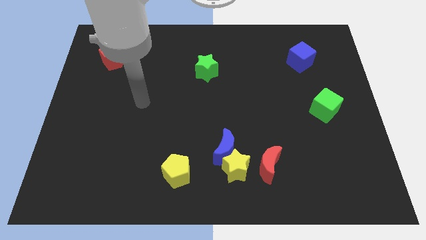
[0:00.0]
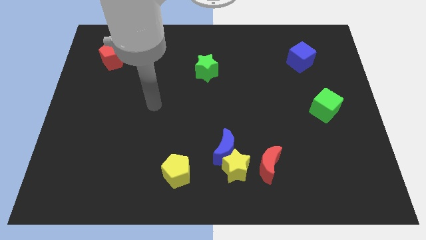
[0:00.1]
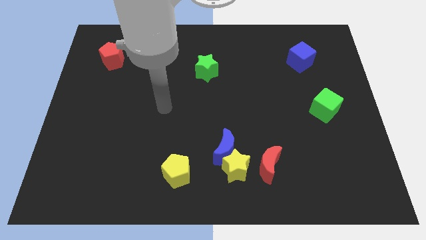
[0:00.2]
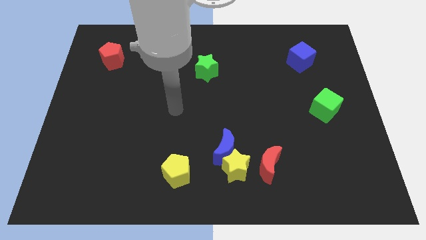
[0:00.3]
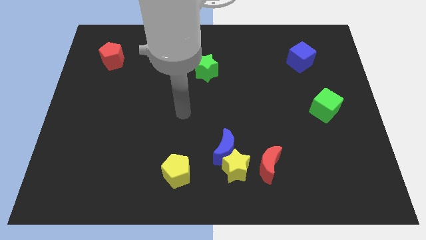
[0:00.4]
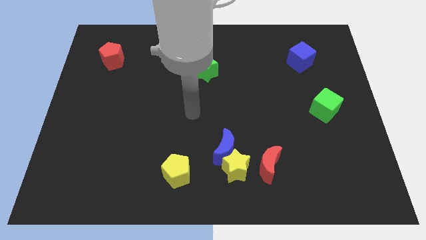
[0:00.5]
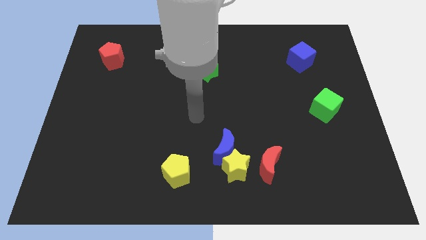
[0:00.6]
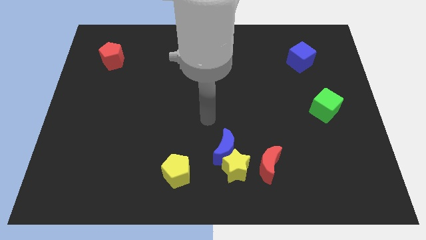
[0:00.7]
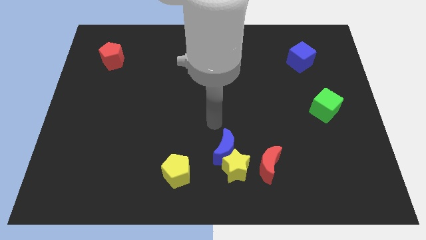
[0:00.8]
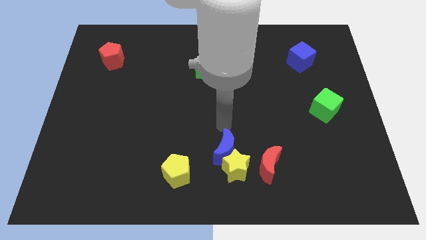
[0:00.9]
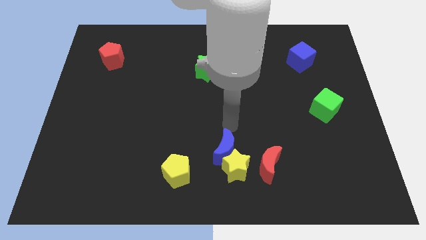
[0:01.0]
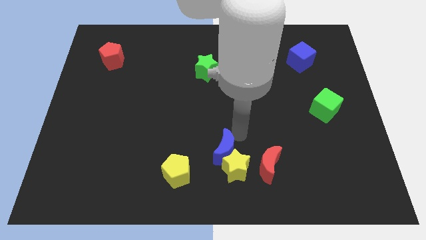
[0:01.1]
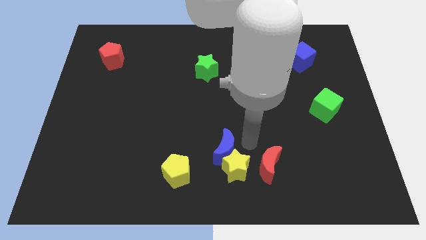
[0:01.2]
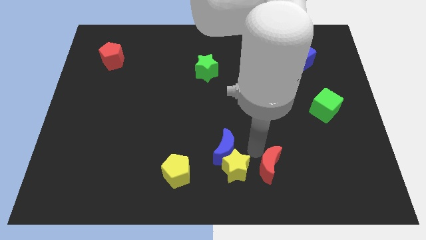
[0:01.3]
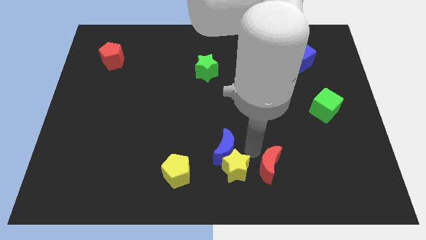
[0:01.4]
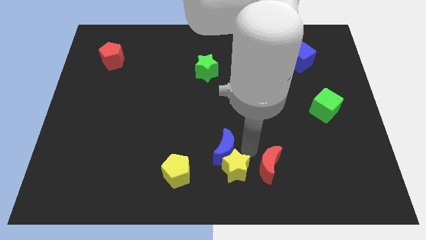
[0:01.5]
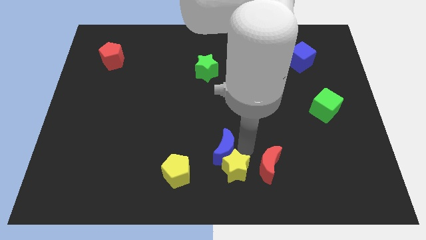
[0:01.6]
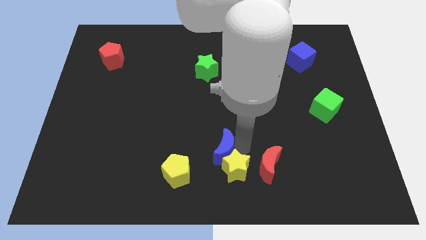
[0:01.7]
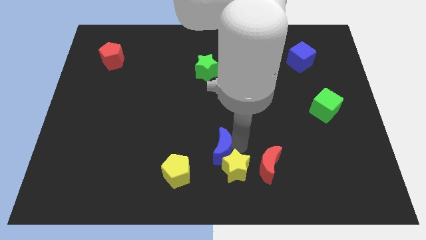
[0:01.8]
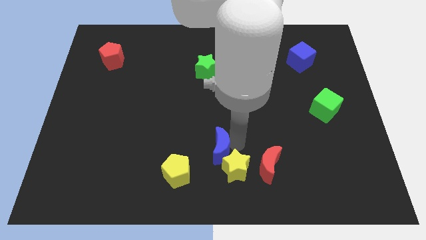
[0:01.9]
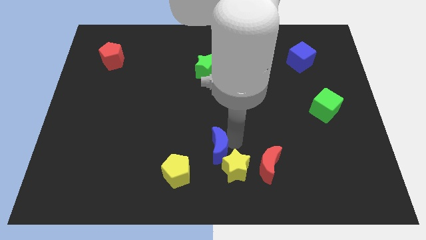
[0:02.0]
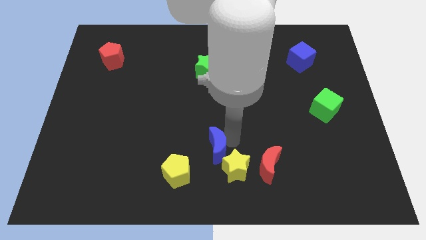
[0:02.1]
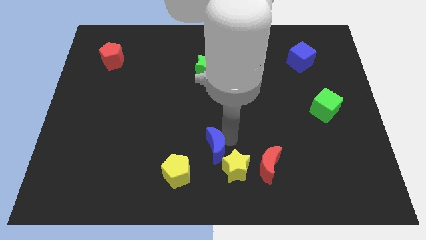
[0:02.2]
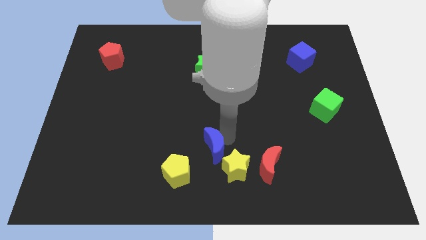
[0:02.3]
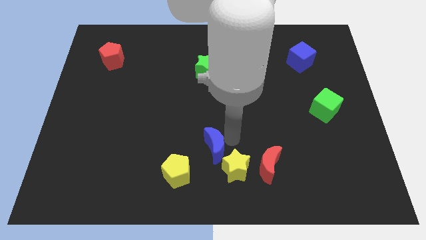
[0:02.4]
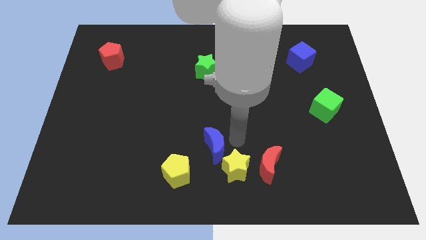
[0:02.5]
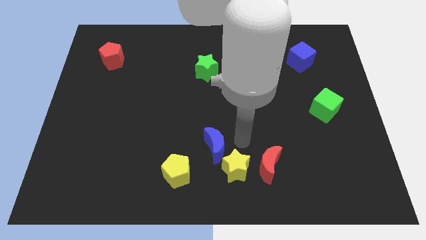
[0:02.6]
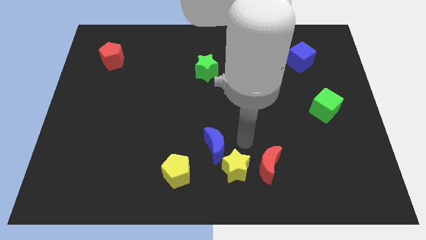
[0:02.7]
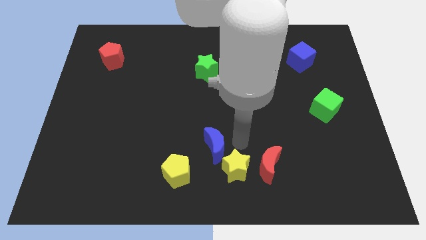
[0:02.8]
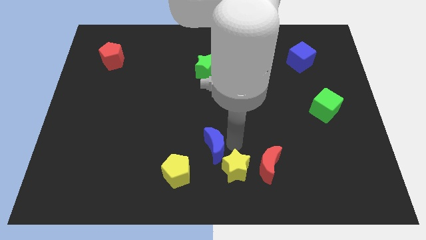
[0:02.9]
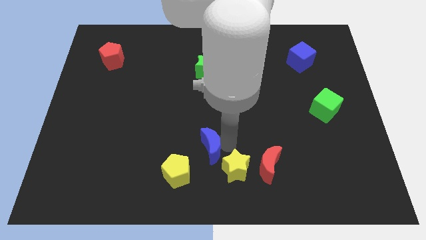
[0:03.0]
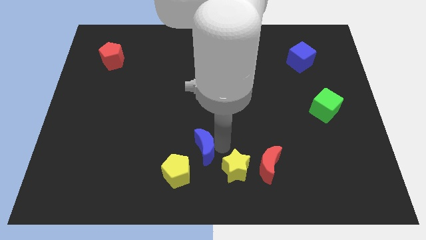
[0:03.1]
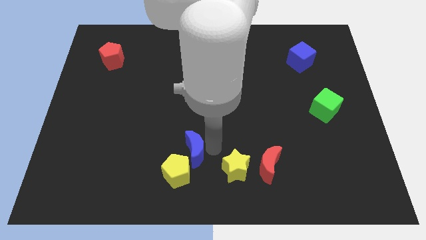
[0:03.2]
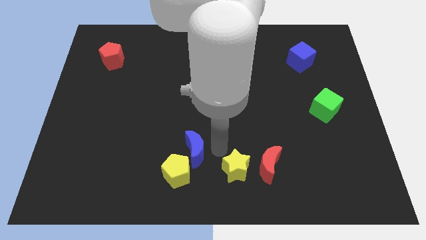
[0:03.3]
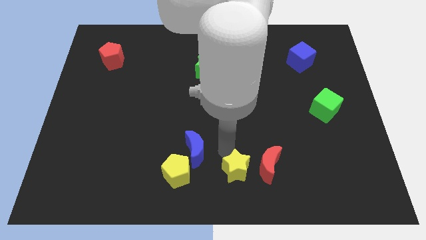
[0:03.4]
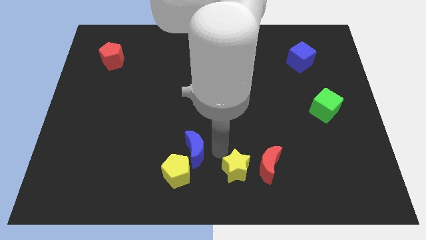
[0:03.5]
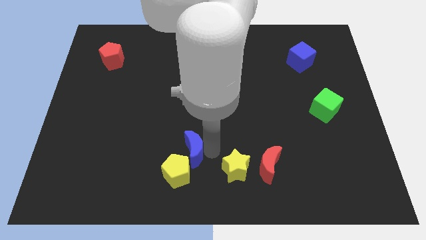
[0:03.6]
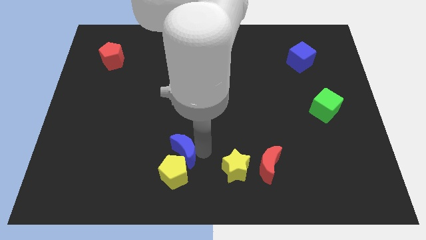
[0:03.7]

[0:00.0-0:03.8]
slightly push the blue moon left

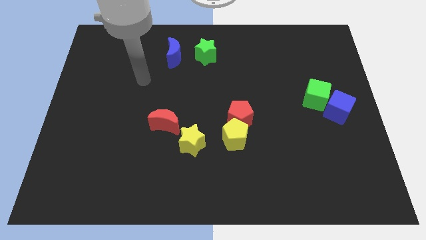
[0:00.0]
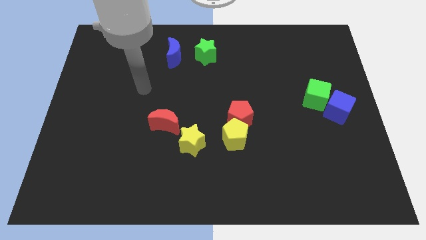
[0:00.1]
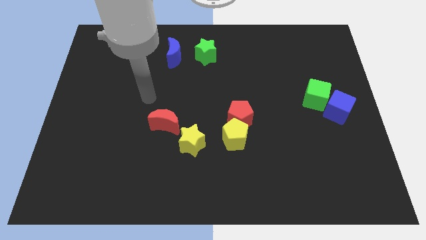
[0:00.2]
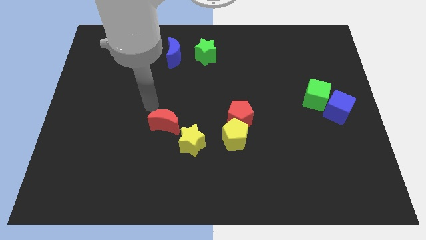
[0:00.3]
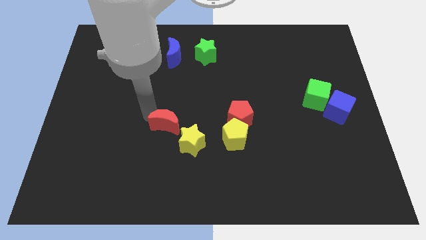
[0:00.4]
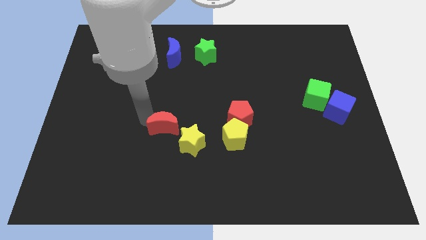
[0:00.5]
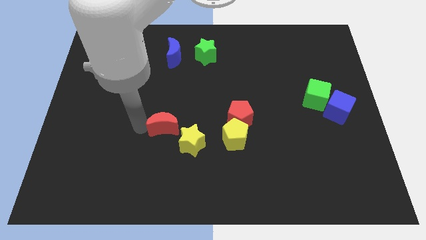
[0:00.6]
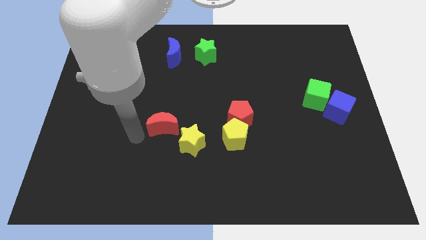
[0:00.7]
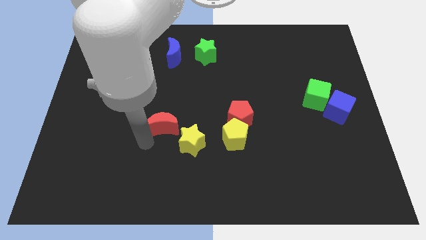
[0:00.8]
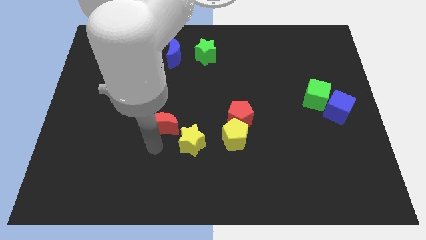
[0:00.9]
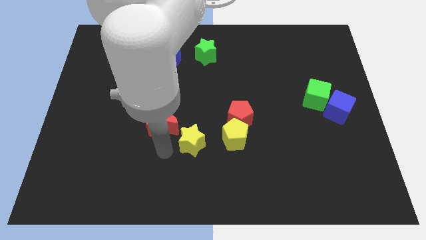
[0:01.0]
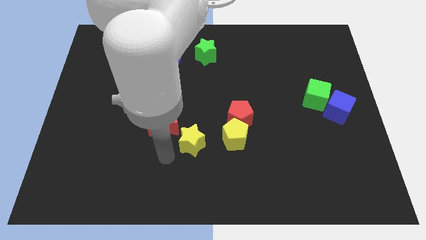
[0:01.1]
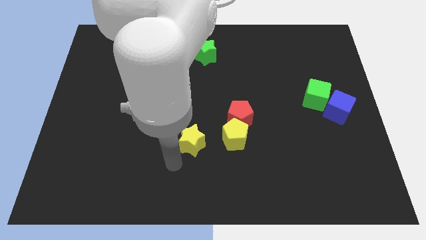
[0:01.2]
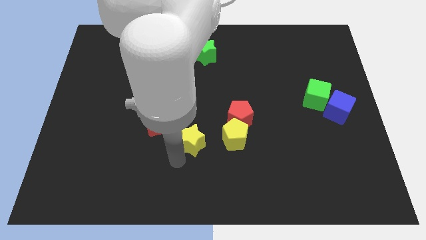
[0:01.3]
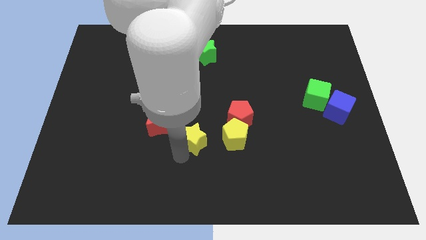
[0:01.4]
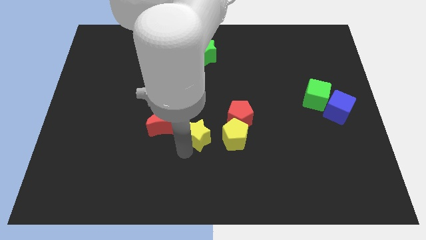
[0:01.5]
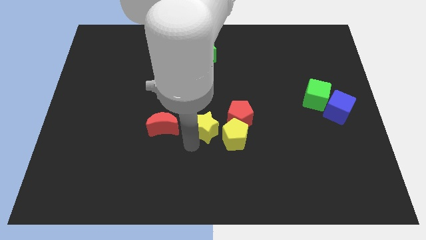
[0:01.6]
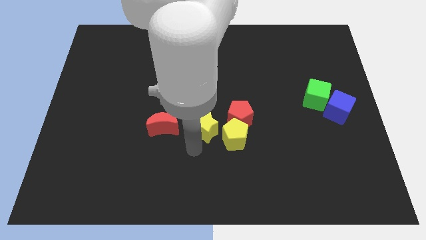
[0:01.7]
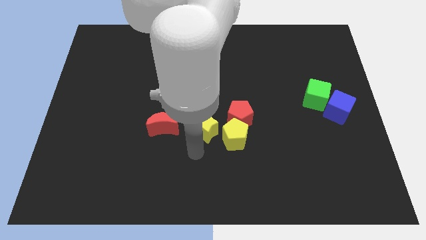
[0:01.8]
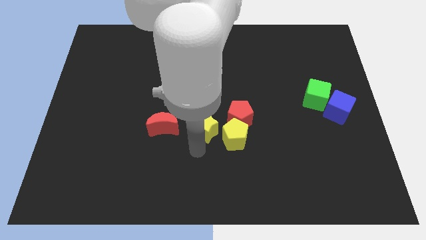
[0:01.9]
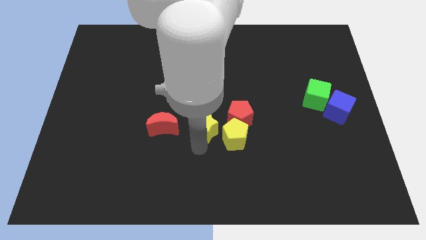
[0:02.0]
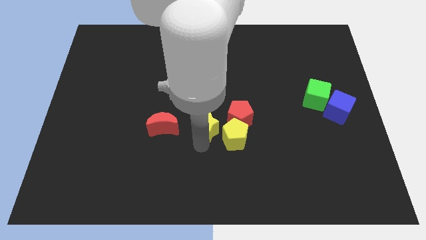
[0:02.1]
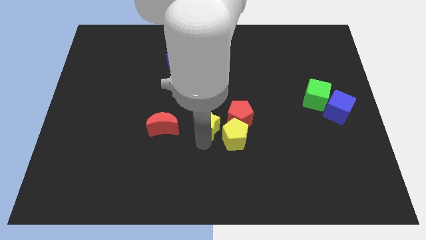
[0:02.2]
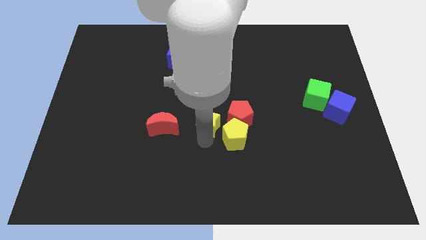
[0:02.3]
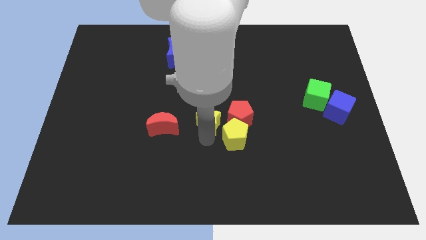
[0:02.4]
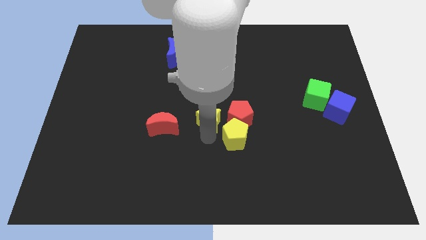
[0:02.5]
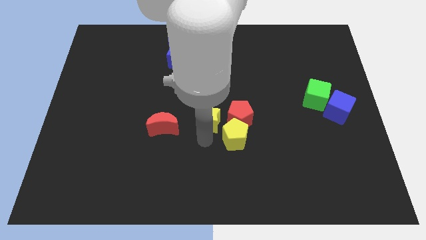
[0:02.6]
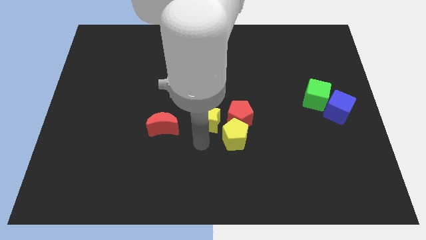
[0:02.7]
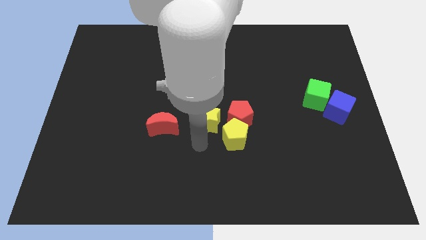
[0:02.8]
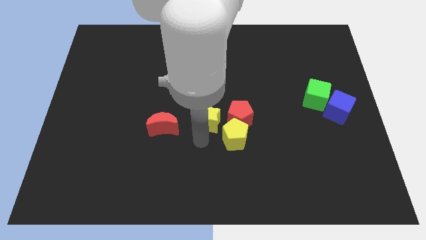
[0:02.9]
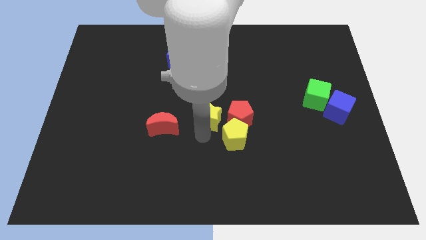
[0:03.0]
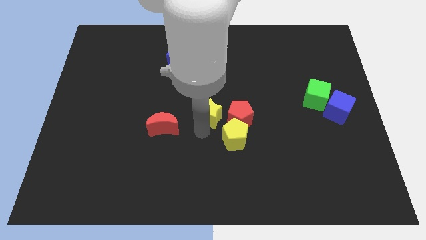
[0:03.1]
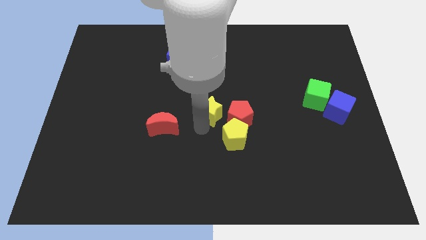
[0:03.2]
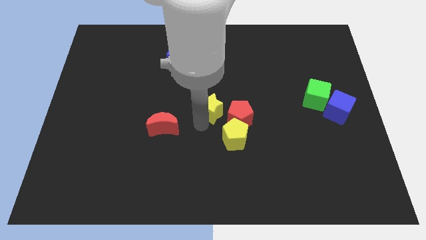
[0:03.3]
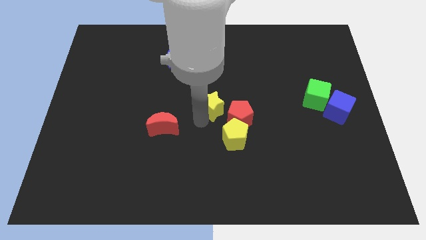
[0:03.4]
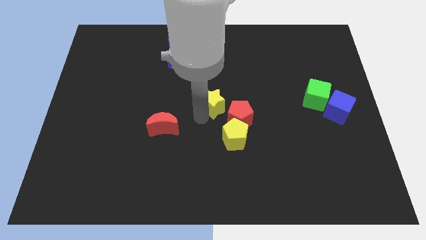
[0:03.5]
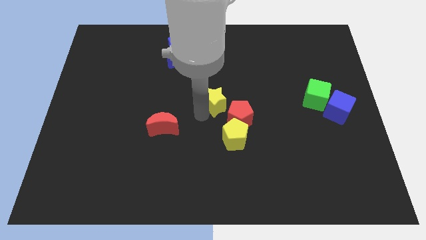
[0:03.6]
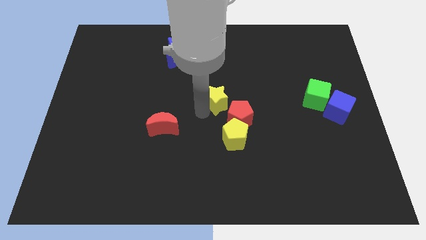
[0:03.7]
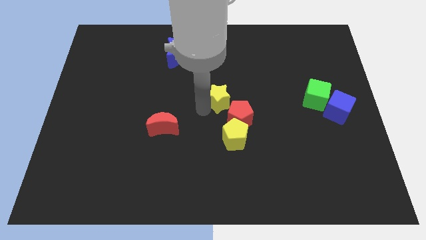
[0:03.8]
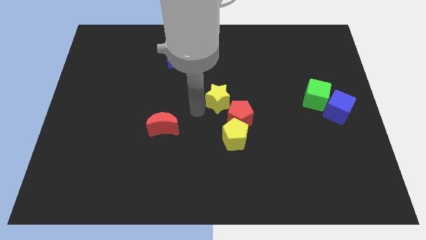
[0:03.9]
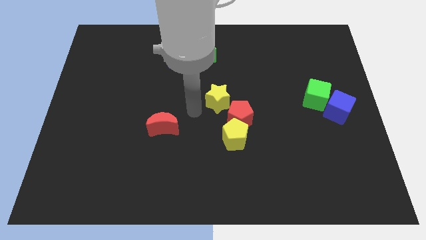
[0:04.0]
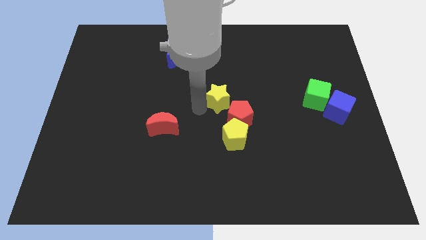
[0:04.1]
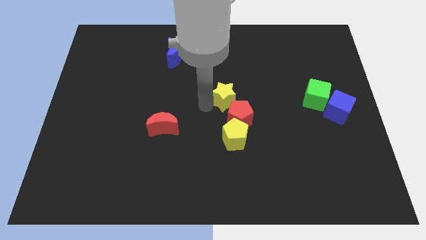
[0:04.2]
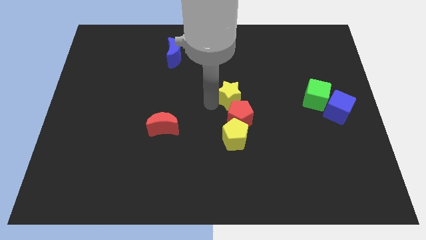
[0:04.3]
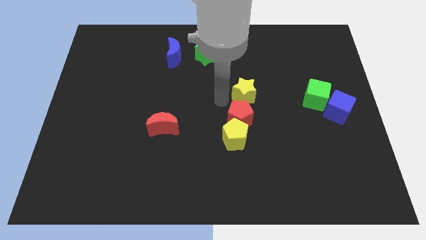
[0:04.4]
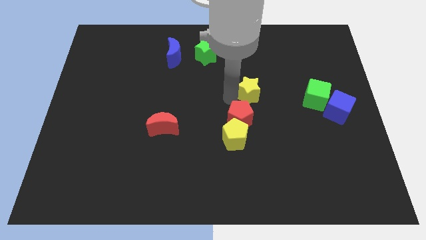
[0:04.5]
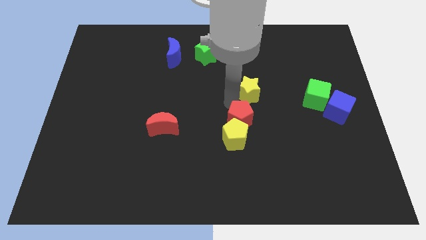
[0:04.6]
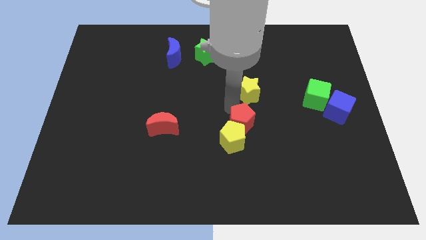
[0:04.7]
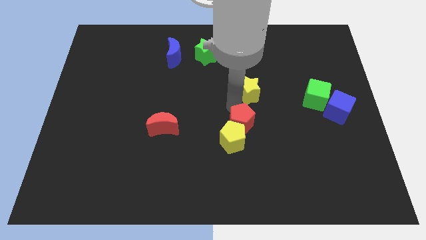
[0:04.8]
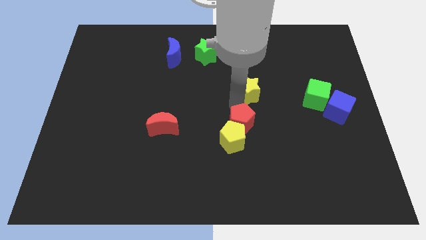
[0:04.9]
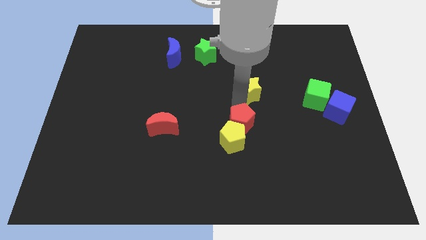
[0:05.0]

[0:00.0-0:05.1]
push the yellow star diagonally up and to the right
